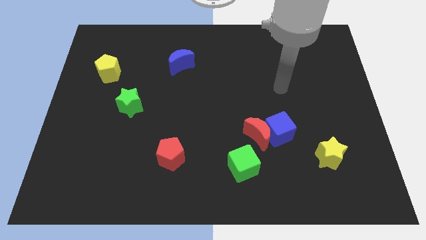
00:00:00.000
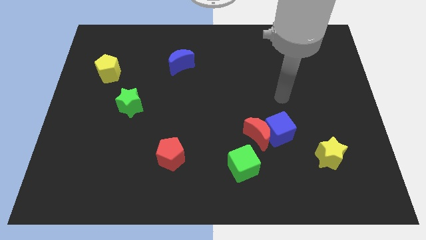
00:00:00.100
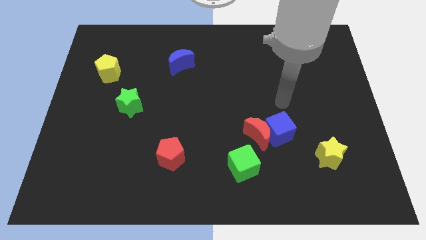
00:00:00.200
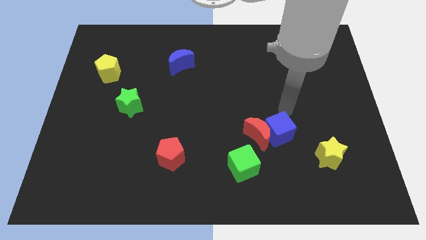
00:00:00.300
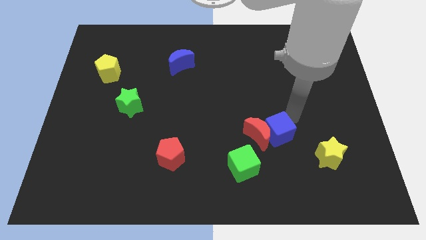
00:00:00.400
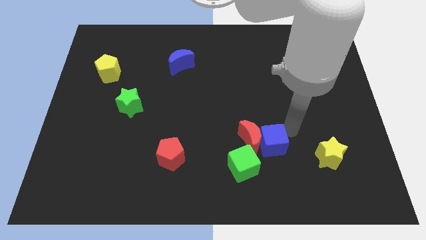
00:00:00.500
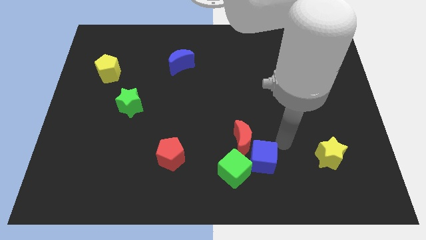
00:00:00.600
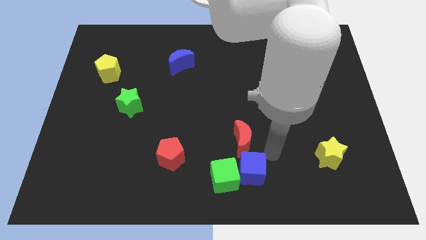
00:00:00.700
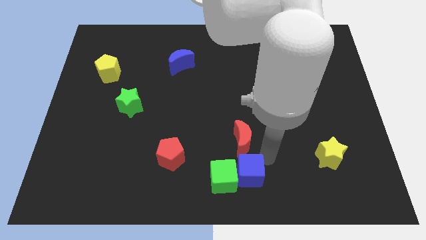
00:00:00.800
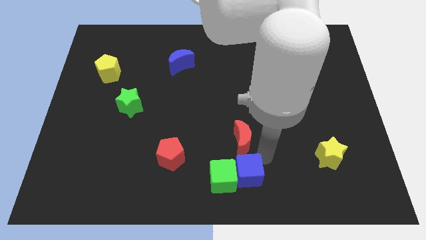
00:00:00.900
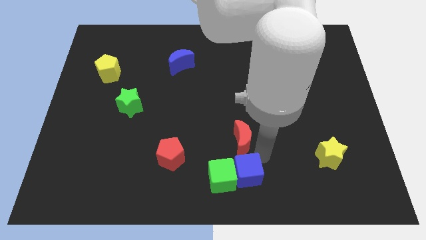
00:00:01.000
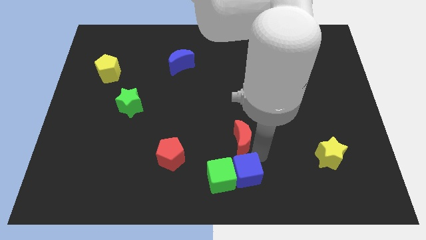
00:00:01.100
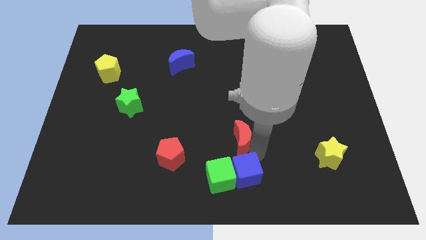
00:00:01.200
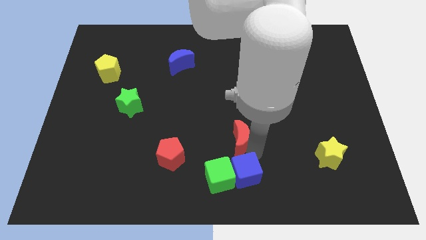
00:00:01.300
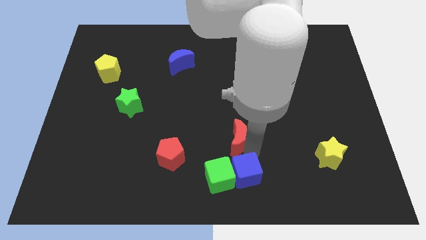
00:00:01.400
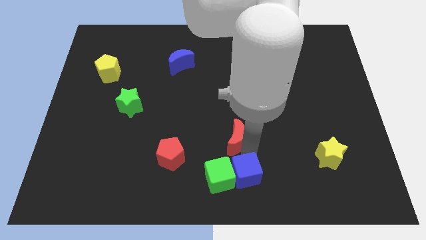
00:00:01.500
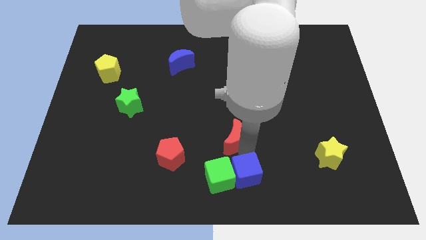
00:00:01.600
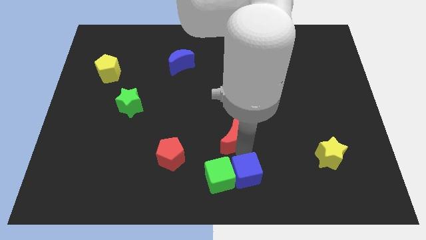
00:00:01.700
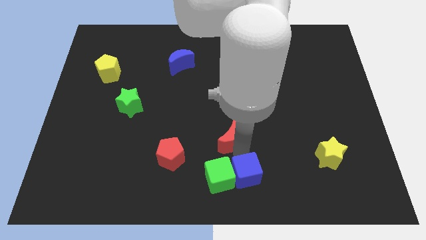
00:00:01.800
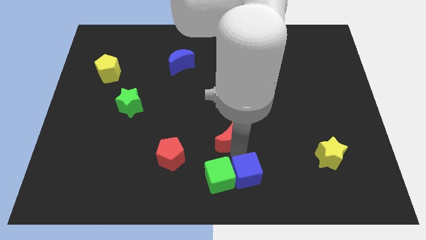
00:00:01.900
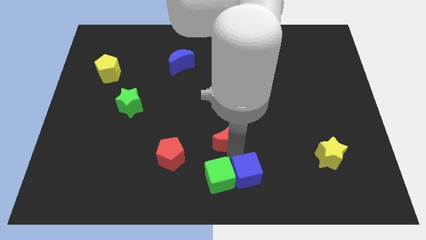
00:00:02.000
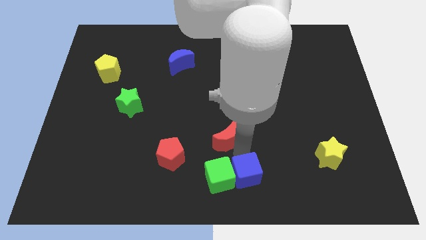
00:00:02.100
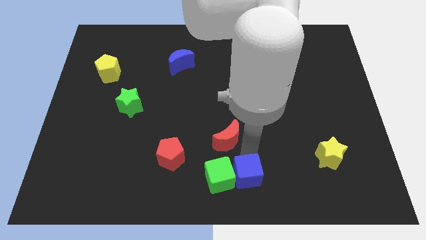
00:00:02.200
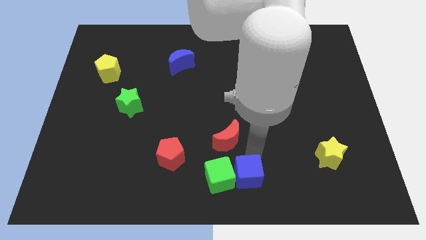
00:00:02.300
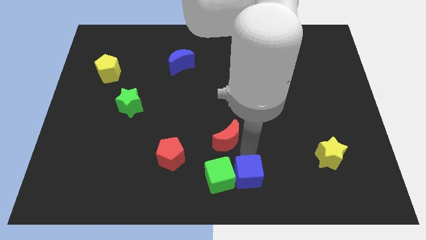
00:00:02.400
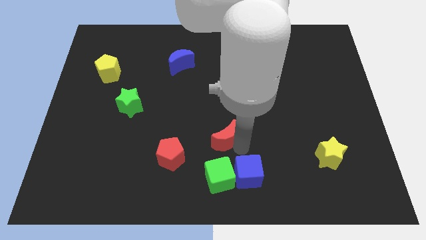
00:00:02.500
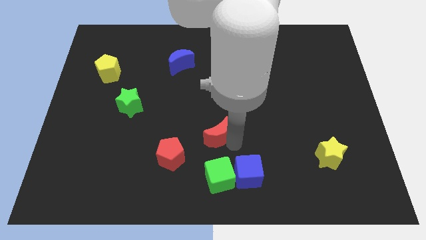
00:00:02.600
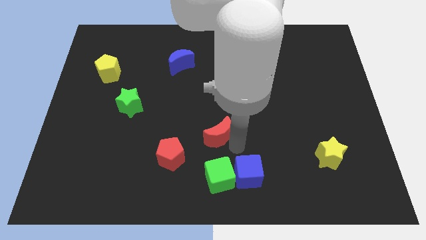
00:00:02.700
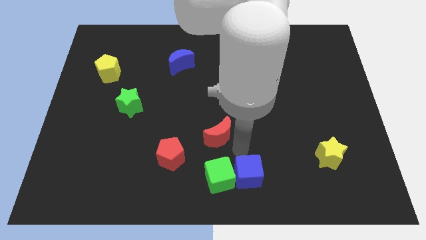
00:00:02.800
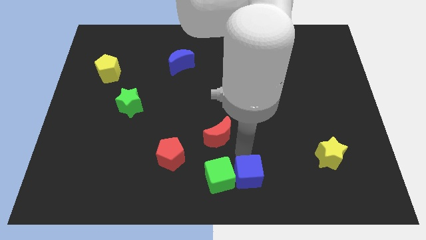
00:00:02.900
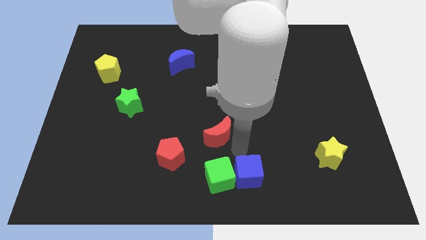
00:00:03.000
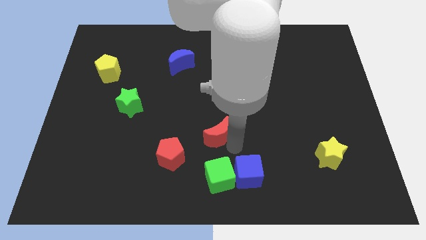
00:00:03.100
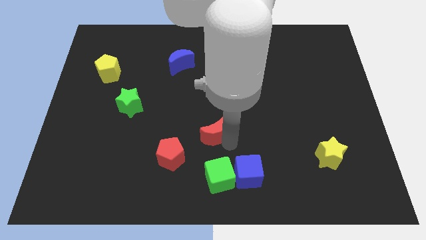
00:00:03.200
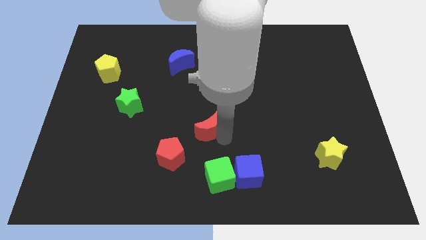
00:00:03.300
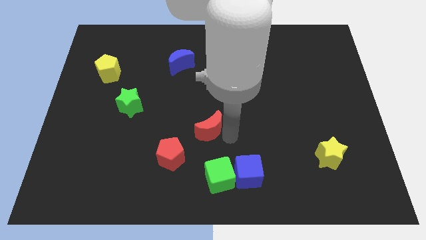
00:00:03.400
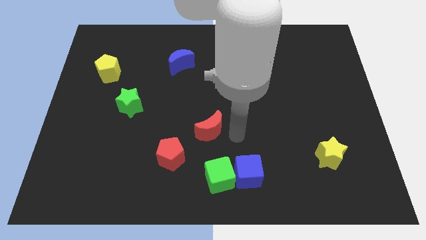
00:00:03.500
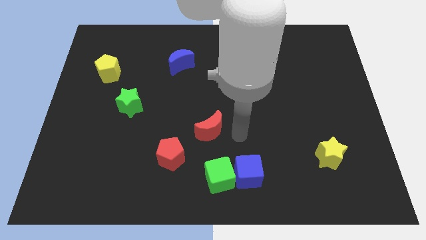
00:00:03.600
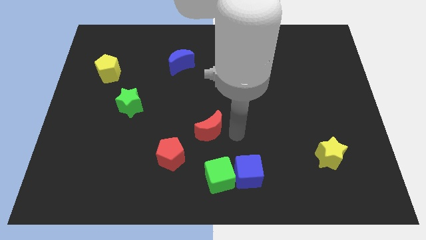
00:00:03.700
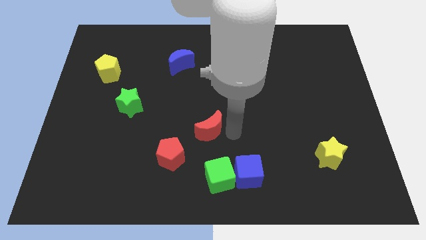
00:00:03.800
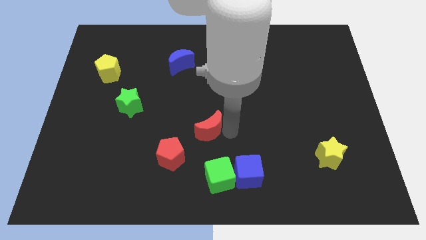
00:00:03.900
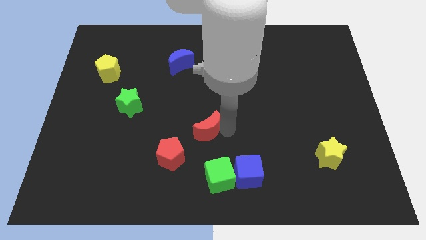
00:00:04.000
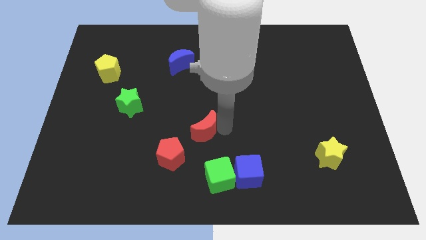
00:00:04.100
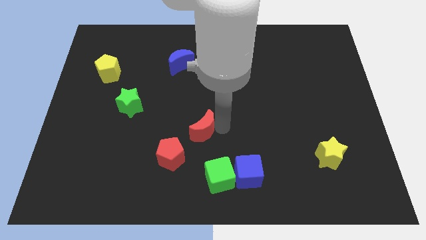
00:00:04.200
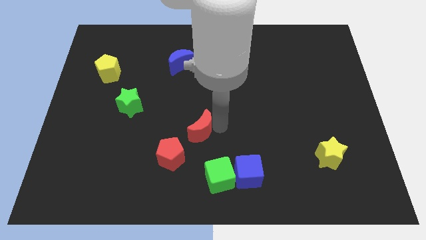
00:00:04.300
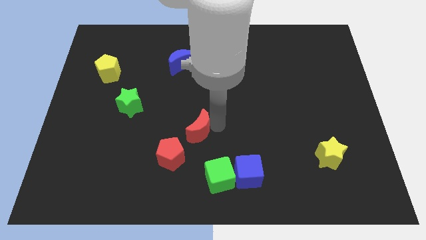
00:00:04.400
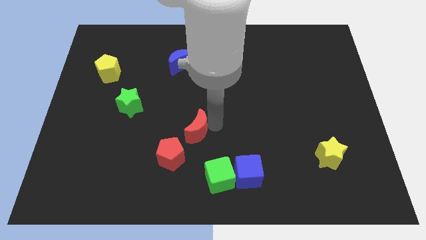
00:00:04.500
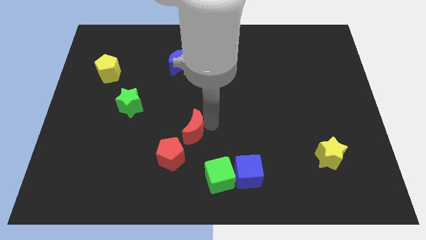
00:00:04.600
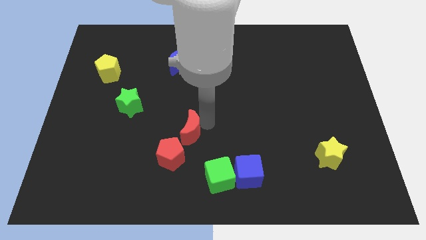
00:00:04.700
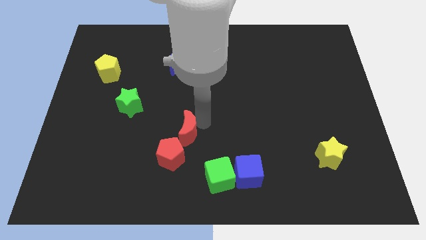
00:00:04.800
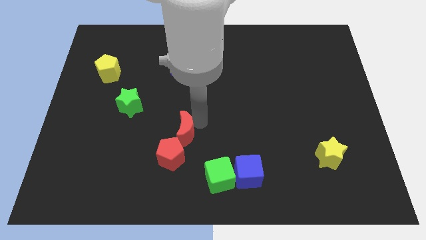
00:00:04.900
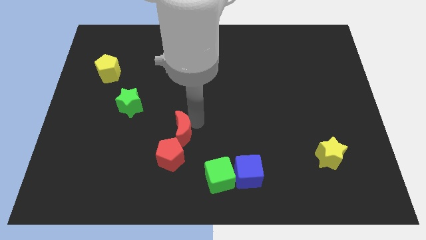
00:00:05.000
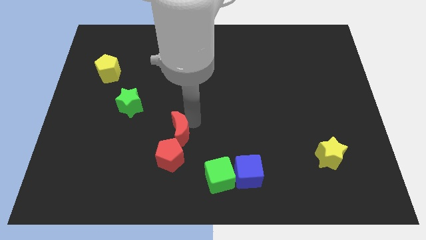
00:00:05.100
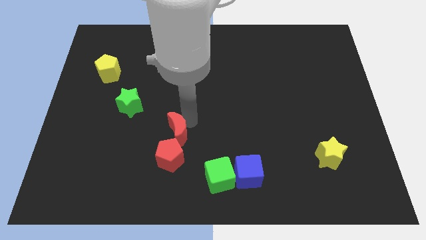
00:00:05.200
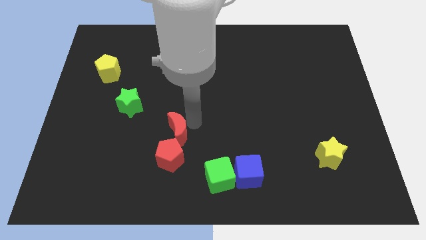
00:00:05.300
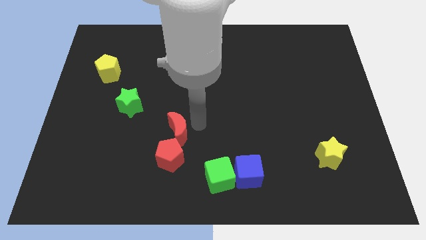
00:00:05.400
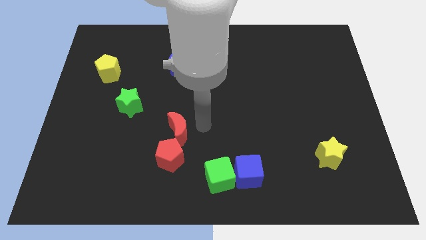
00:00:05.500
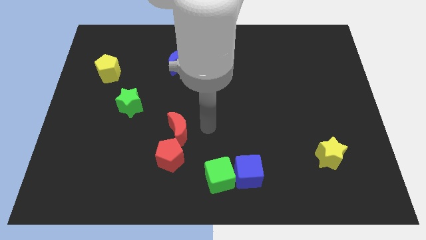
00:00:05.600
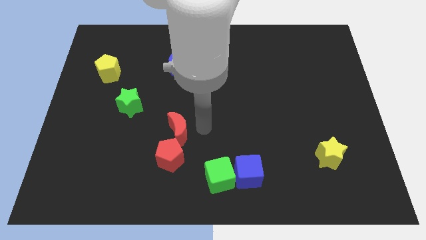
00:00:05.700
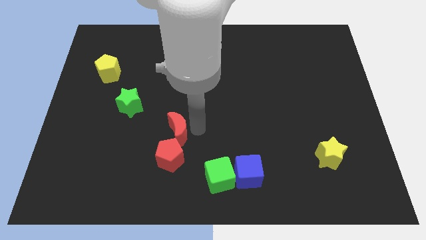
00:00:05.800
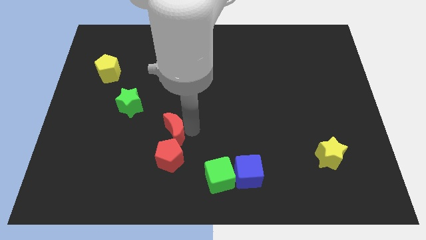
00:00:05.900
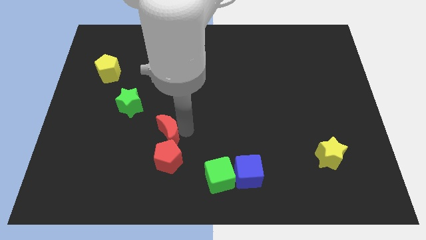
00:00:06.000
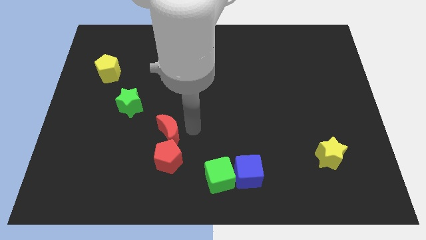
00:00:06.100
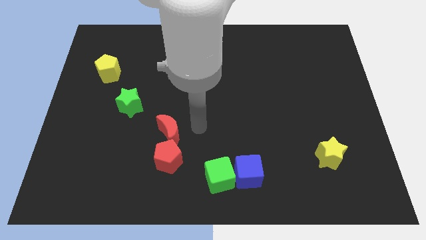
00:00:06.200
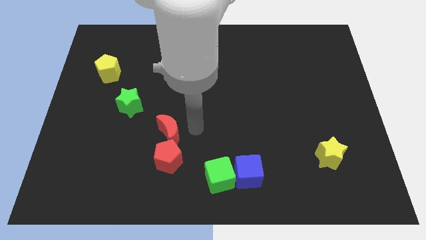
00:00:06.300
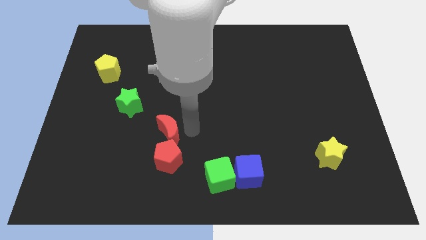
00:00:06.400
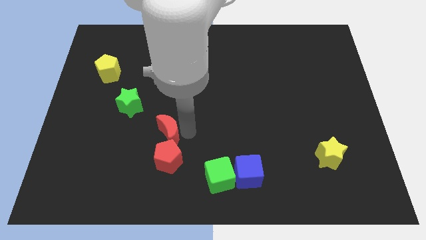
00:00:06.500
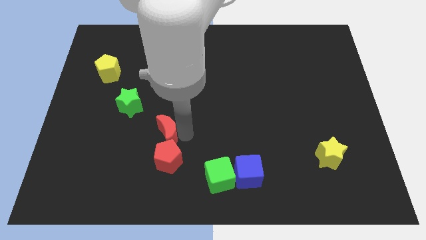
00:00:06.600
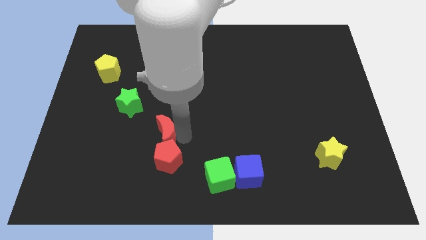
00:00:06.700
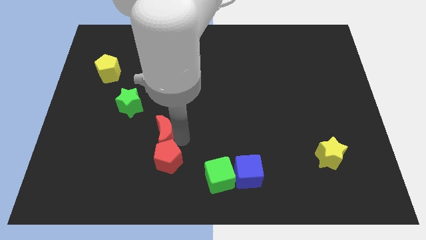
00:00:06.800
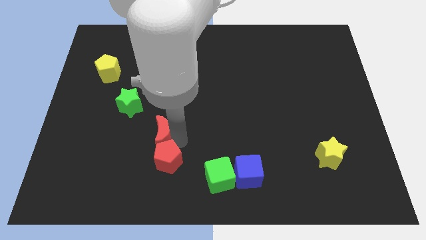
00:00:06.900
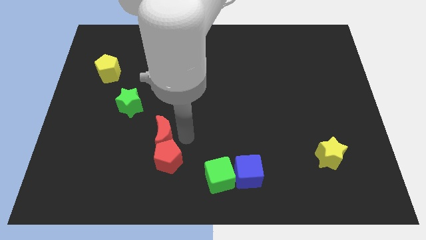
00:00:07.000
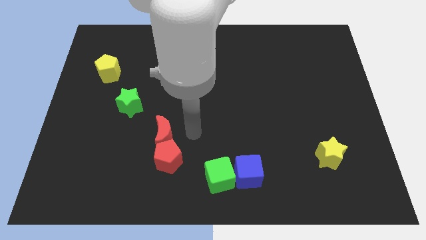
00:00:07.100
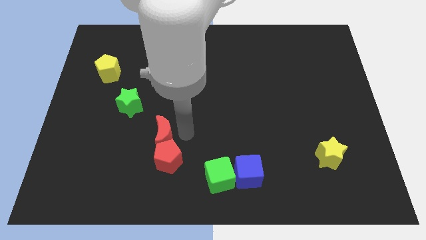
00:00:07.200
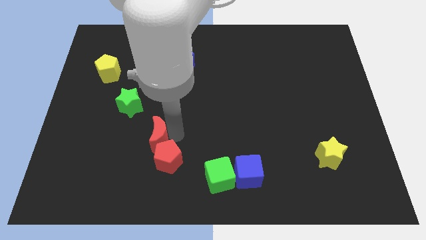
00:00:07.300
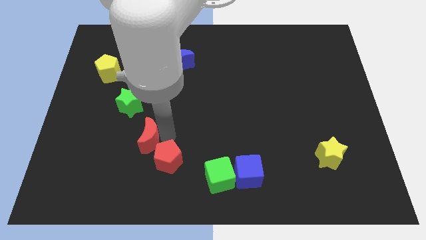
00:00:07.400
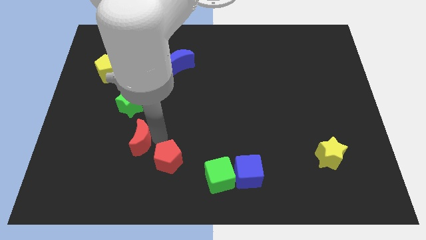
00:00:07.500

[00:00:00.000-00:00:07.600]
put the red moon to the bottom of the green star
